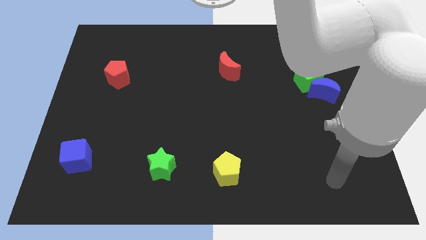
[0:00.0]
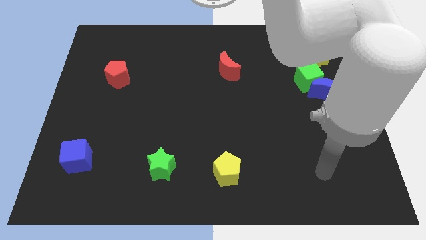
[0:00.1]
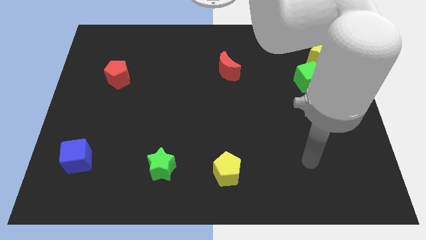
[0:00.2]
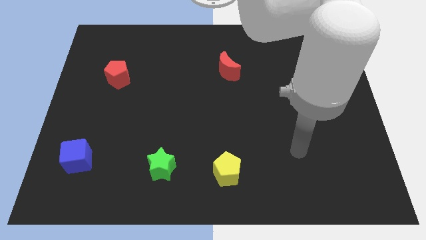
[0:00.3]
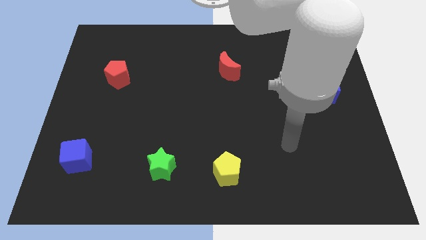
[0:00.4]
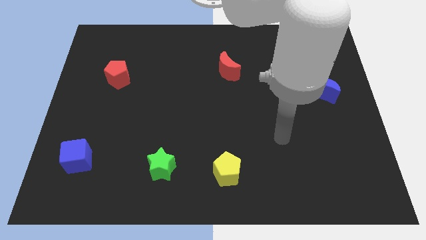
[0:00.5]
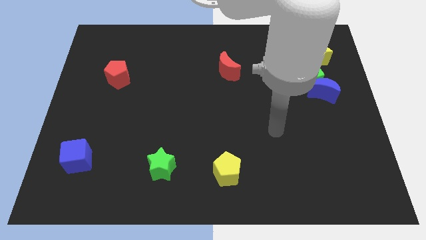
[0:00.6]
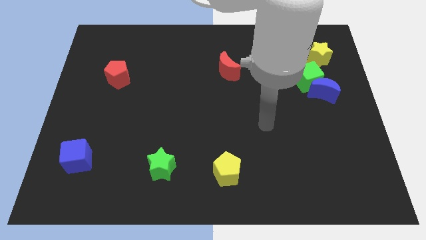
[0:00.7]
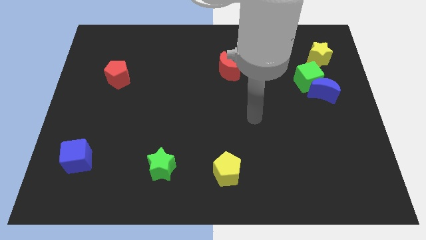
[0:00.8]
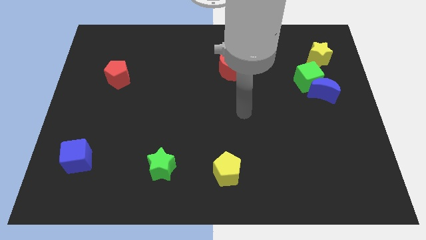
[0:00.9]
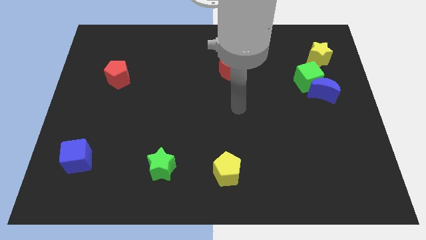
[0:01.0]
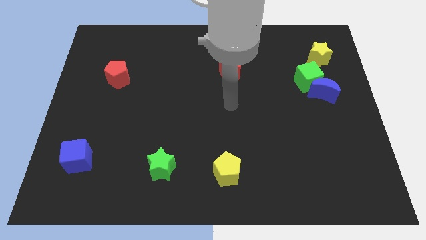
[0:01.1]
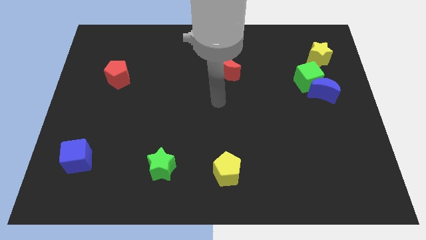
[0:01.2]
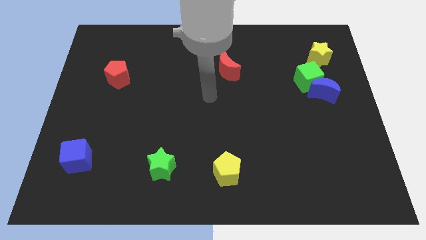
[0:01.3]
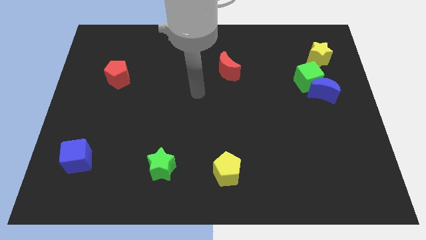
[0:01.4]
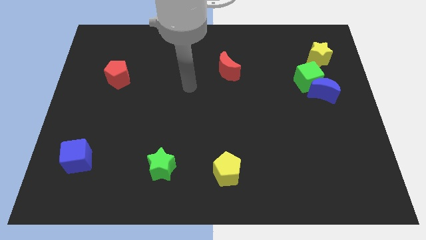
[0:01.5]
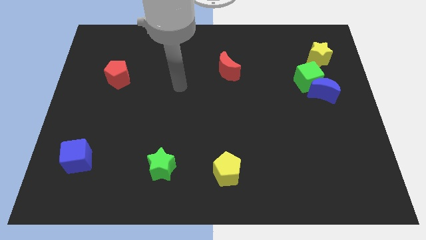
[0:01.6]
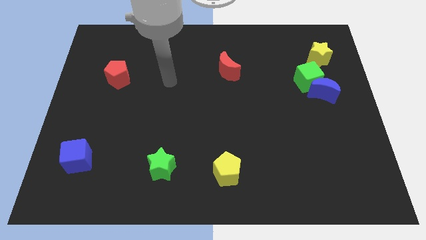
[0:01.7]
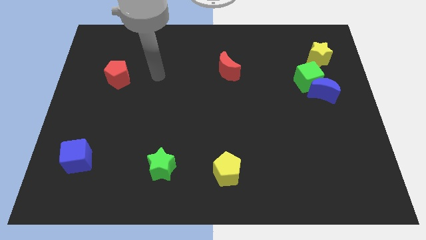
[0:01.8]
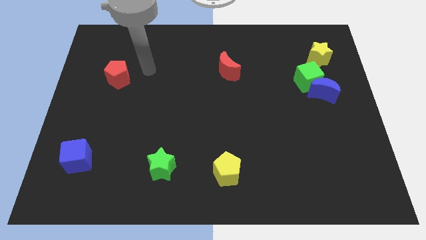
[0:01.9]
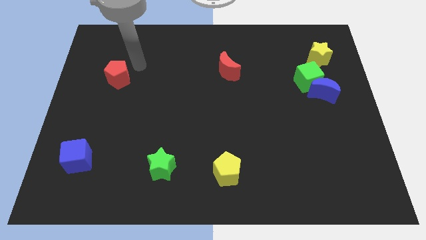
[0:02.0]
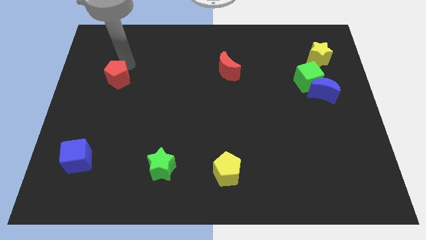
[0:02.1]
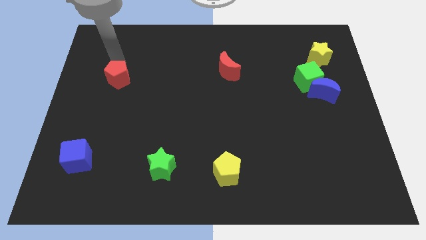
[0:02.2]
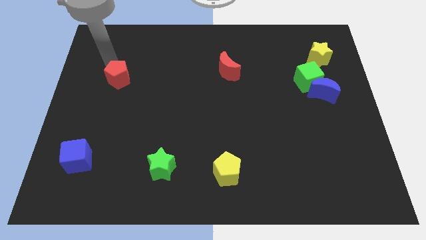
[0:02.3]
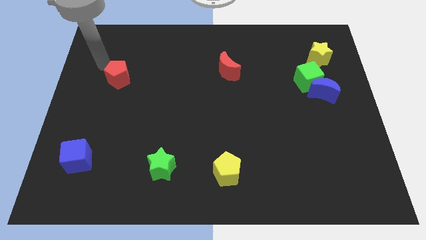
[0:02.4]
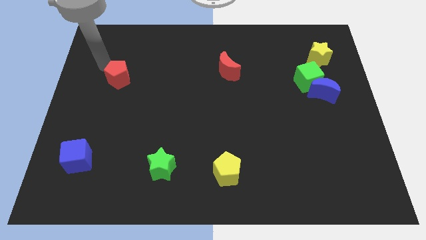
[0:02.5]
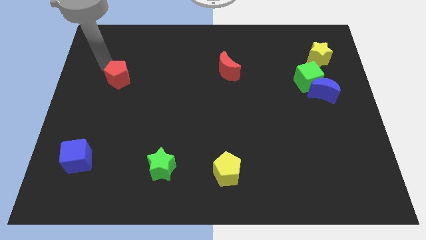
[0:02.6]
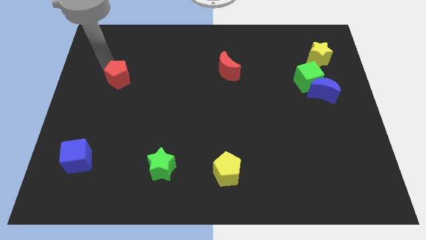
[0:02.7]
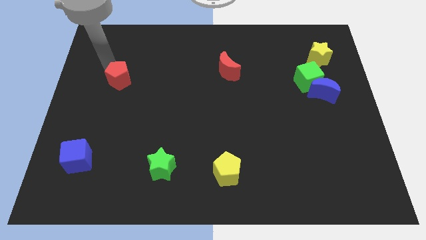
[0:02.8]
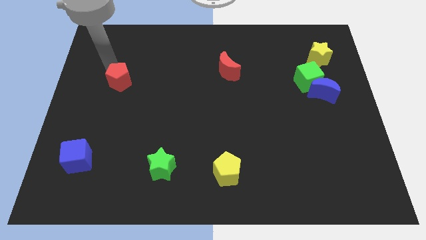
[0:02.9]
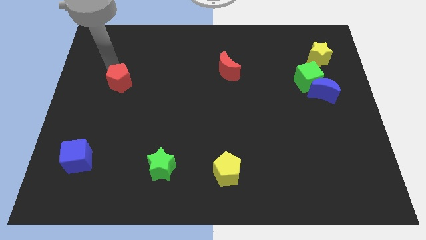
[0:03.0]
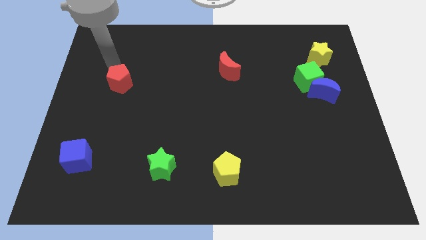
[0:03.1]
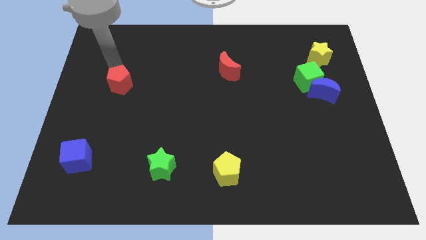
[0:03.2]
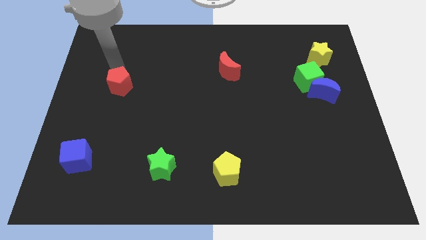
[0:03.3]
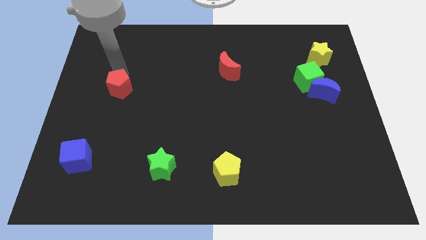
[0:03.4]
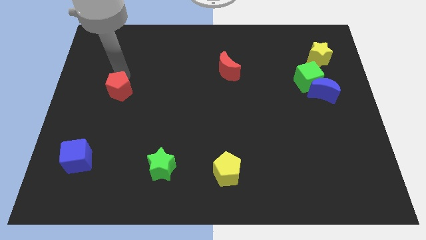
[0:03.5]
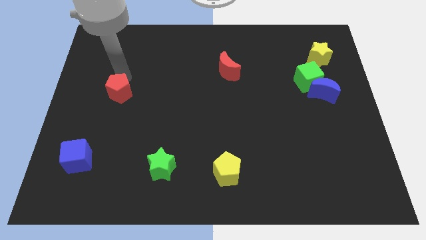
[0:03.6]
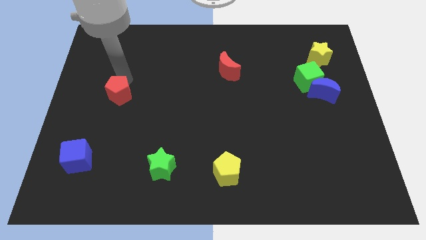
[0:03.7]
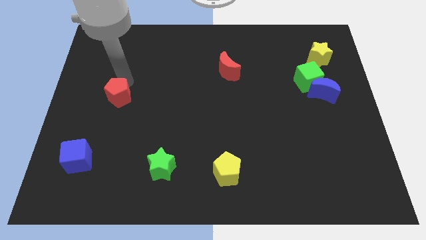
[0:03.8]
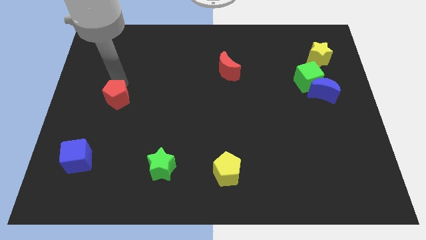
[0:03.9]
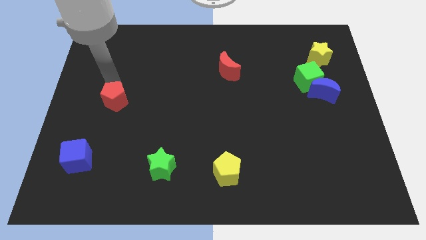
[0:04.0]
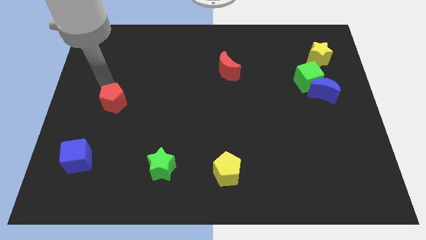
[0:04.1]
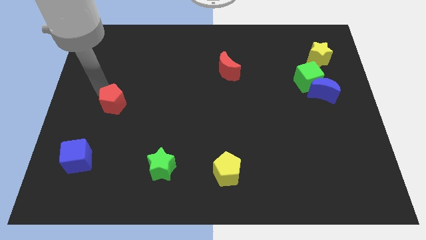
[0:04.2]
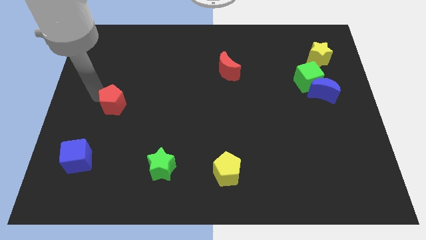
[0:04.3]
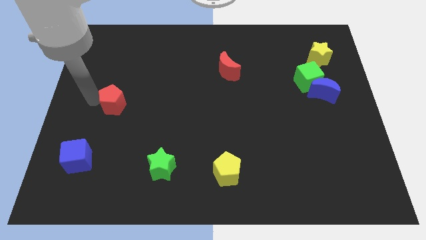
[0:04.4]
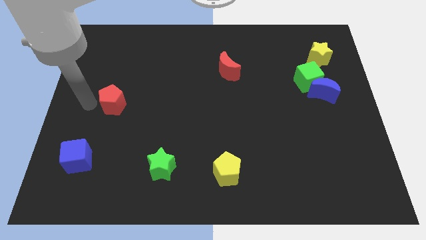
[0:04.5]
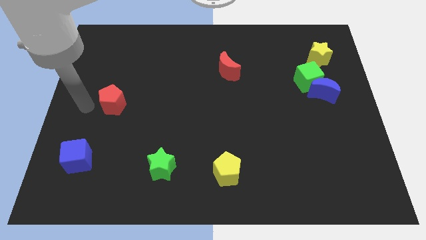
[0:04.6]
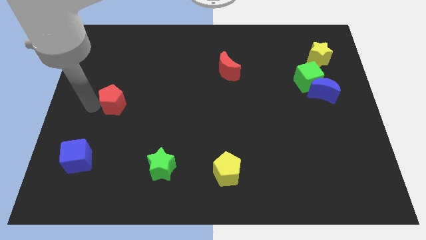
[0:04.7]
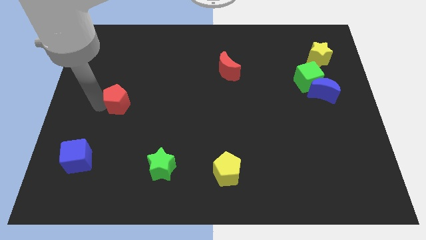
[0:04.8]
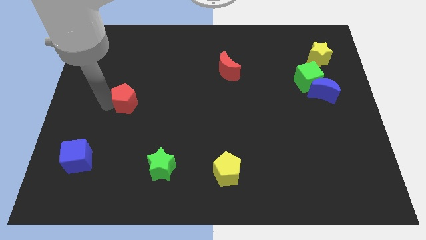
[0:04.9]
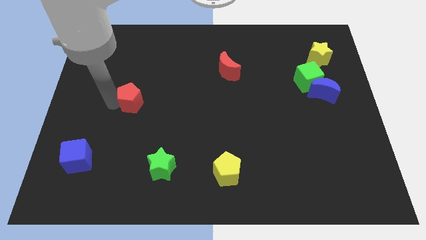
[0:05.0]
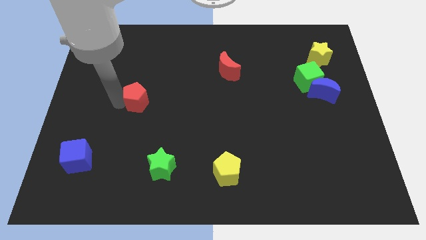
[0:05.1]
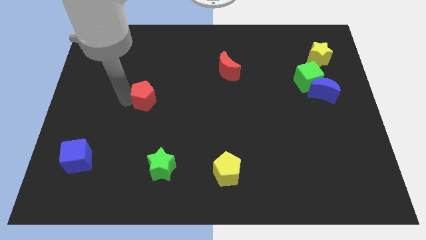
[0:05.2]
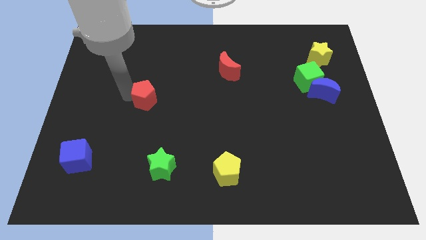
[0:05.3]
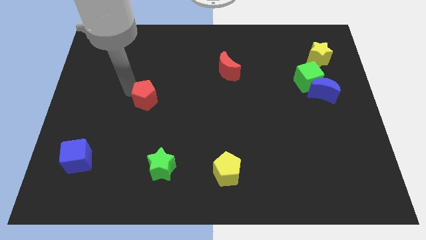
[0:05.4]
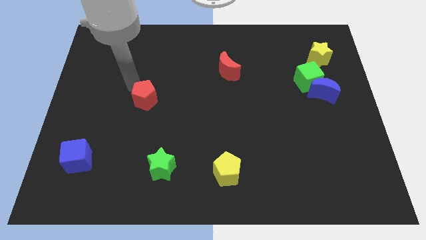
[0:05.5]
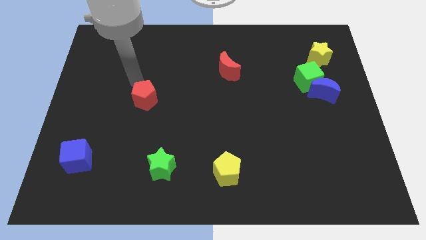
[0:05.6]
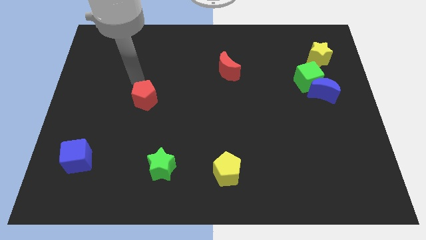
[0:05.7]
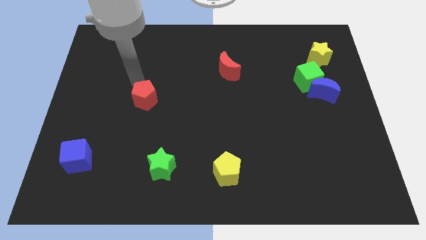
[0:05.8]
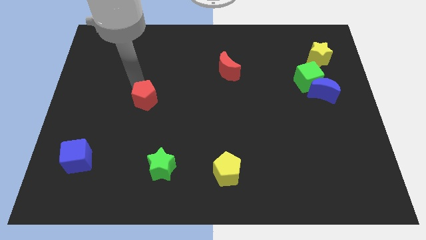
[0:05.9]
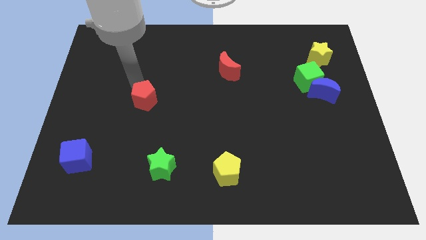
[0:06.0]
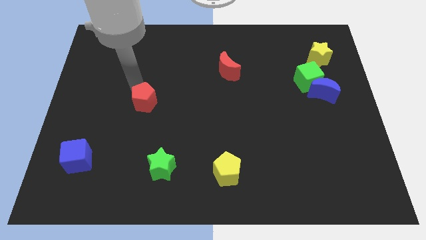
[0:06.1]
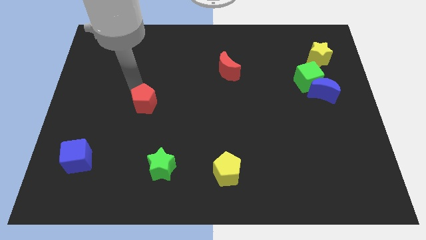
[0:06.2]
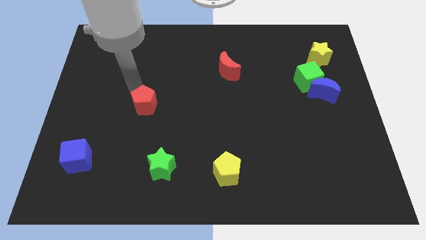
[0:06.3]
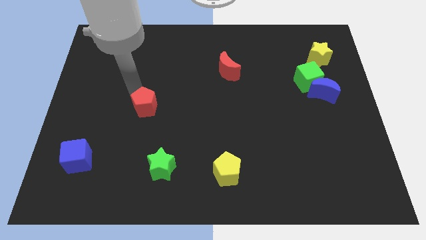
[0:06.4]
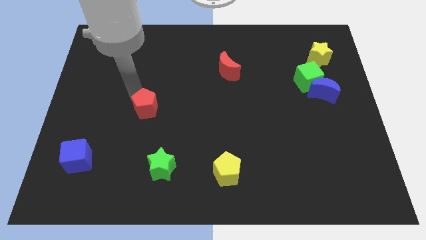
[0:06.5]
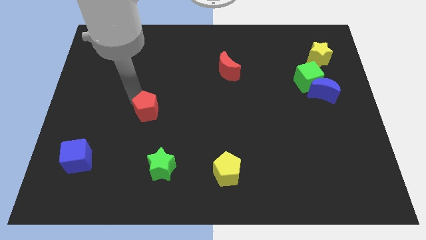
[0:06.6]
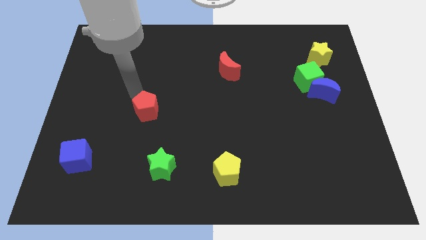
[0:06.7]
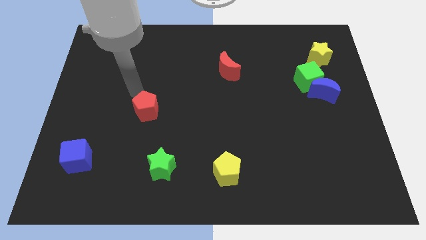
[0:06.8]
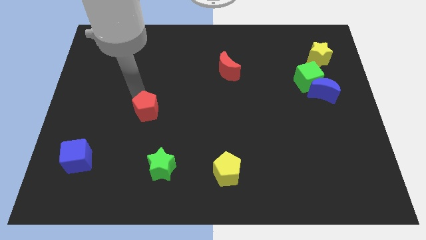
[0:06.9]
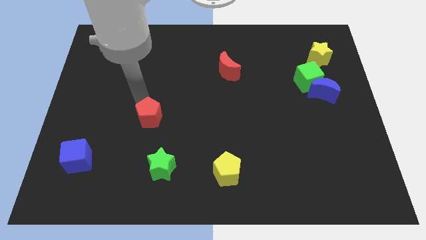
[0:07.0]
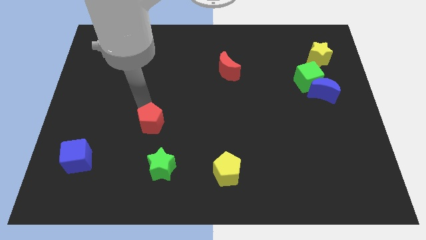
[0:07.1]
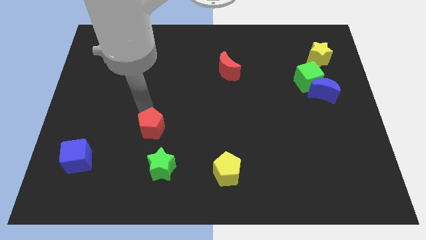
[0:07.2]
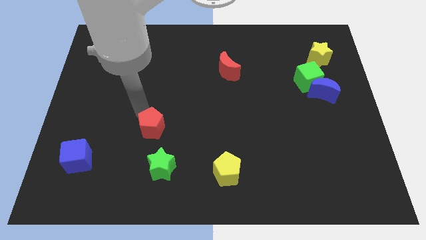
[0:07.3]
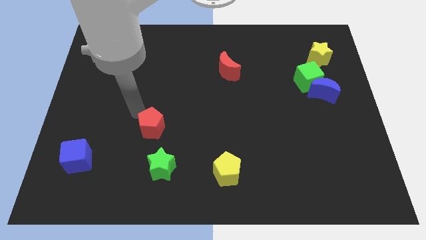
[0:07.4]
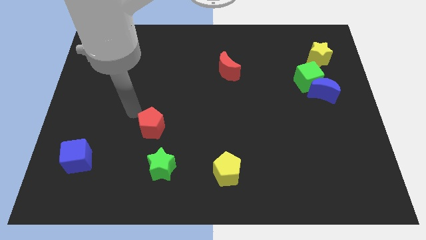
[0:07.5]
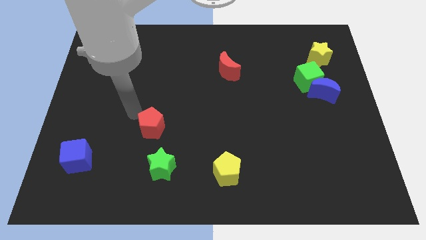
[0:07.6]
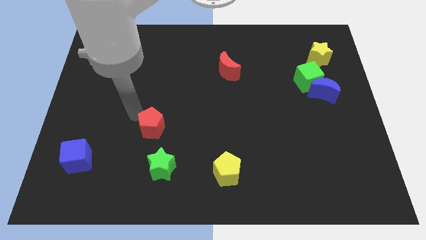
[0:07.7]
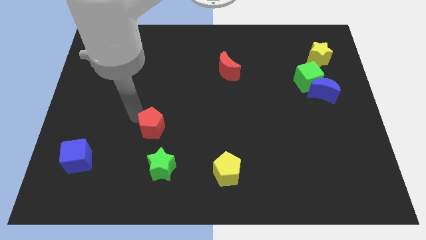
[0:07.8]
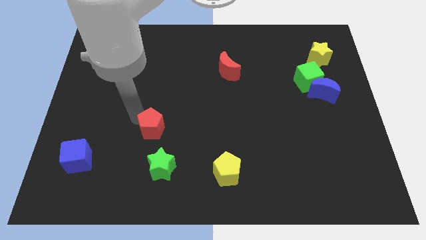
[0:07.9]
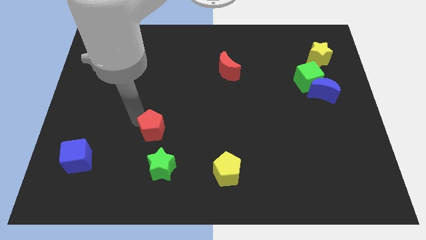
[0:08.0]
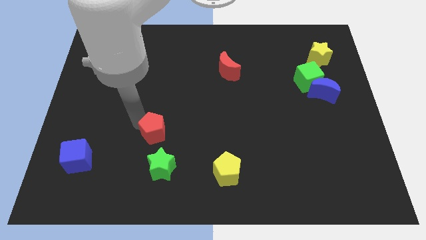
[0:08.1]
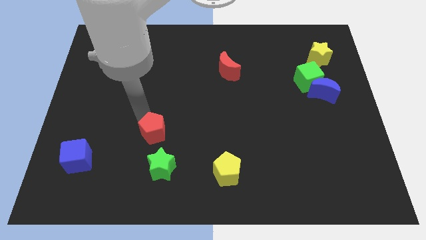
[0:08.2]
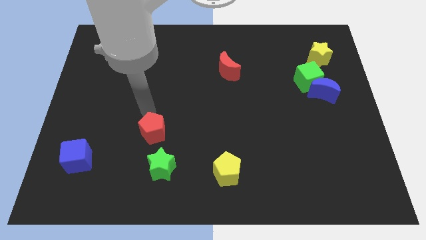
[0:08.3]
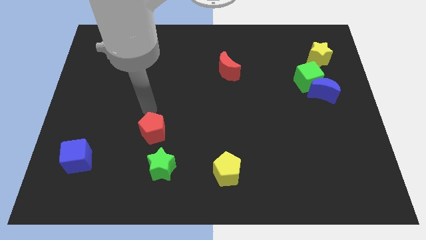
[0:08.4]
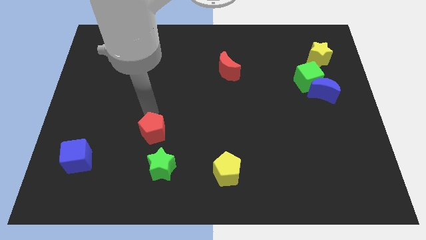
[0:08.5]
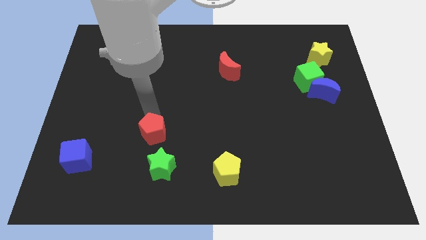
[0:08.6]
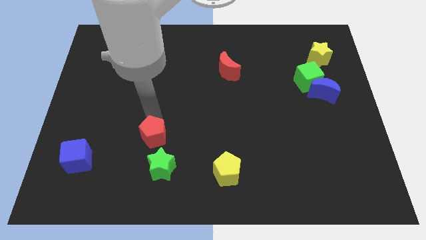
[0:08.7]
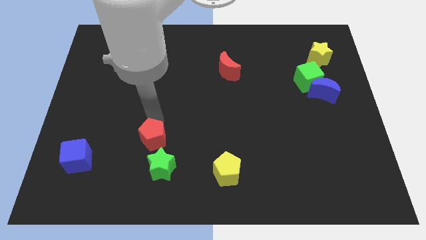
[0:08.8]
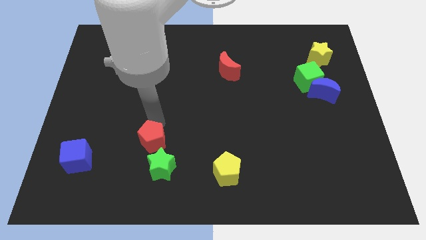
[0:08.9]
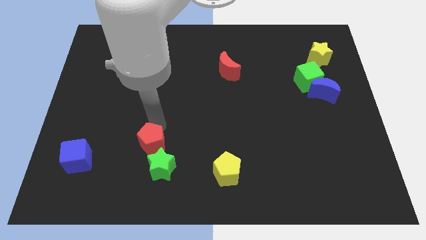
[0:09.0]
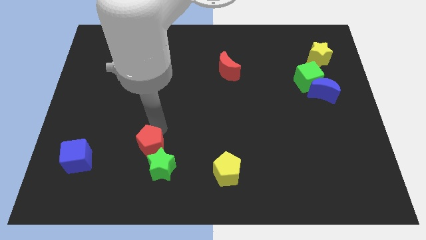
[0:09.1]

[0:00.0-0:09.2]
put the red pentagon towards the green star
